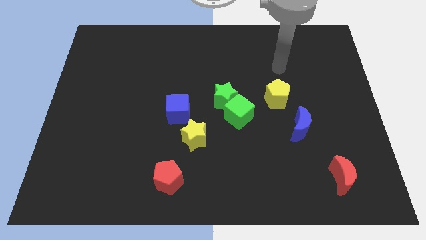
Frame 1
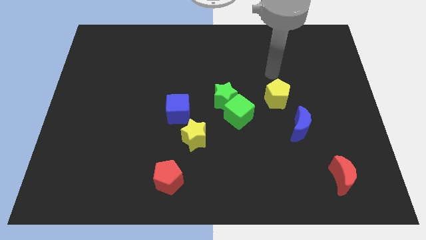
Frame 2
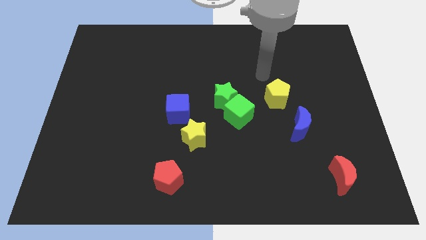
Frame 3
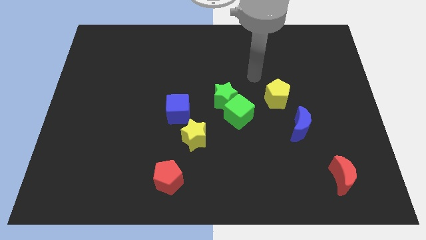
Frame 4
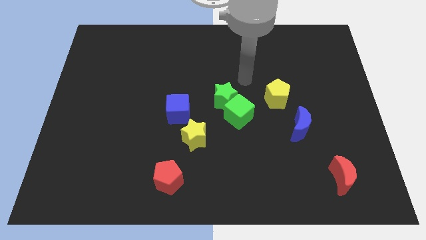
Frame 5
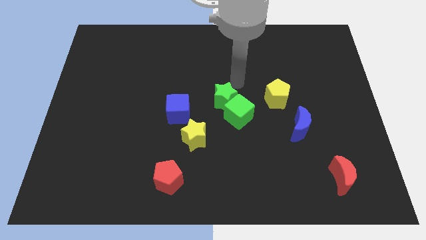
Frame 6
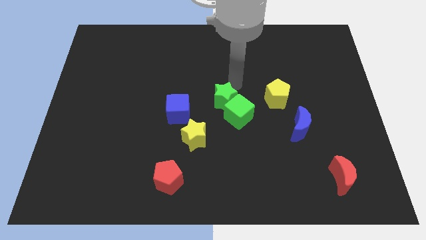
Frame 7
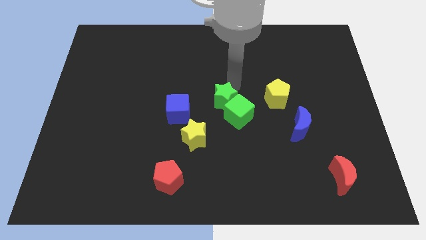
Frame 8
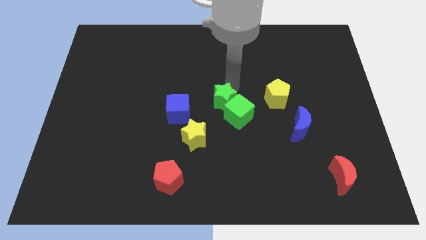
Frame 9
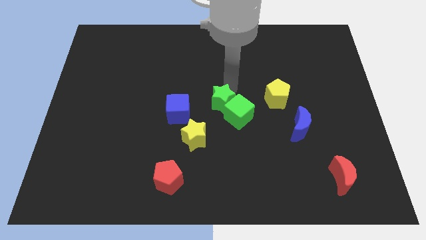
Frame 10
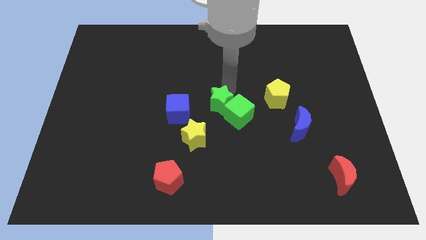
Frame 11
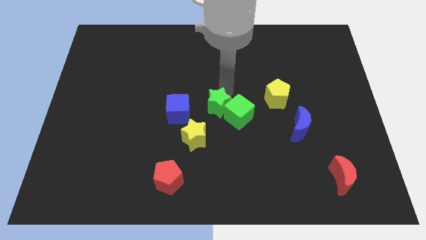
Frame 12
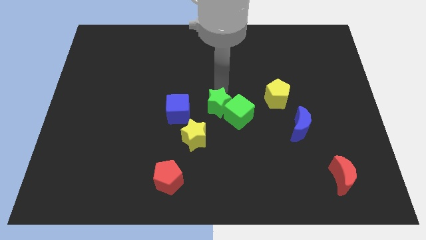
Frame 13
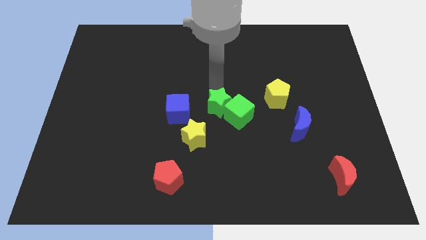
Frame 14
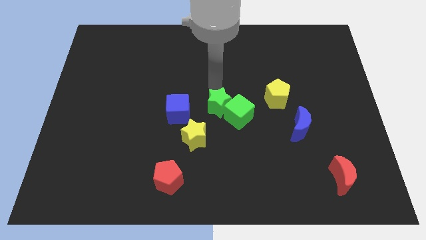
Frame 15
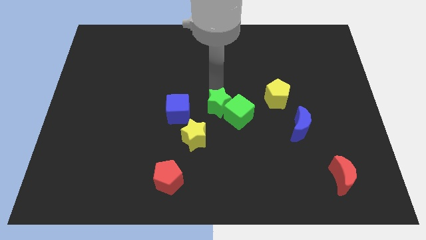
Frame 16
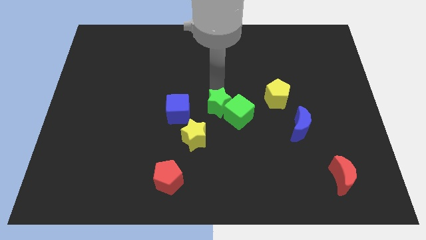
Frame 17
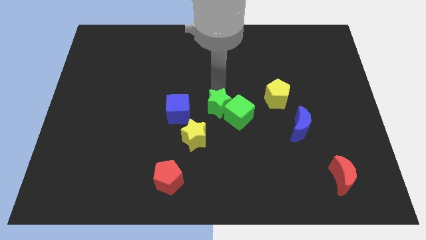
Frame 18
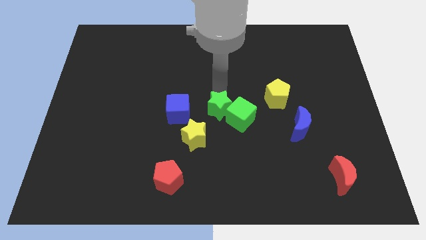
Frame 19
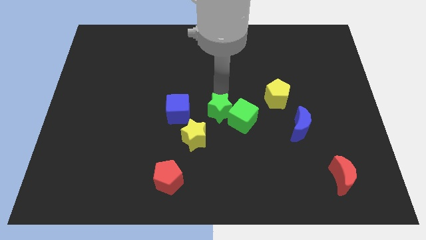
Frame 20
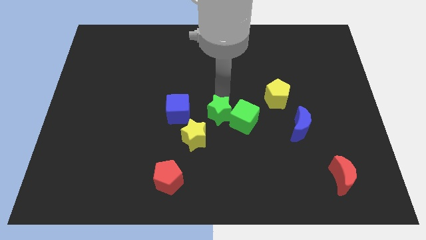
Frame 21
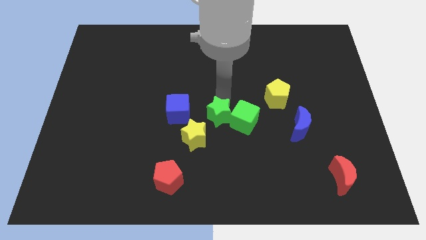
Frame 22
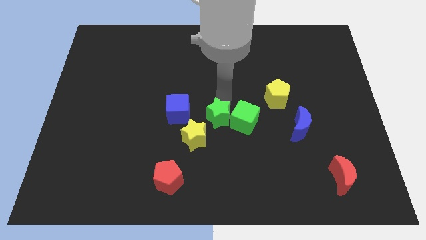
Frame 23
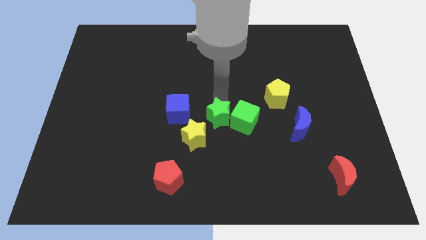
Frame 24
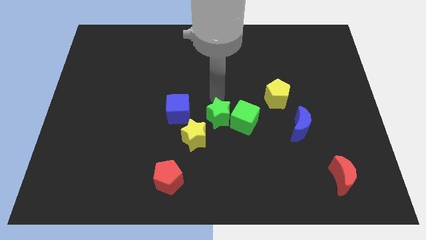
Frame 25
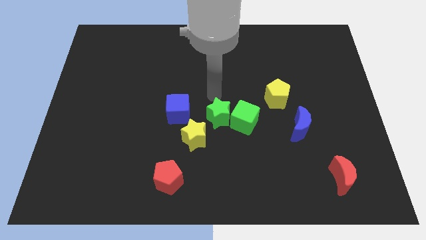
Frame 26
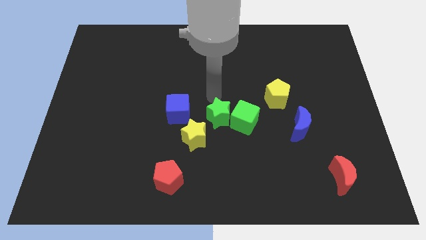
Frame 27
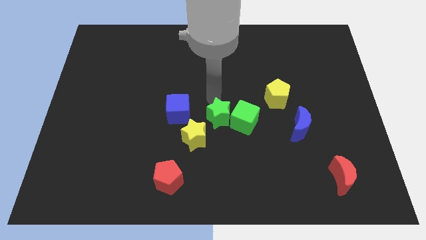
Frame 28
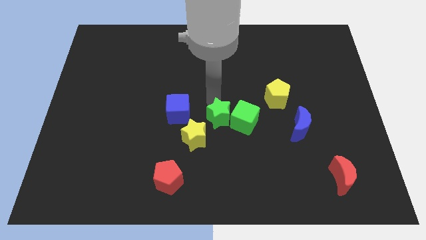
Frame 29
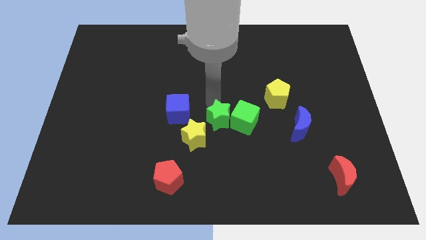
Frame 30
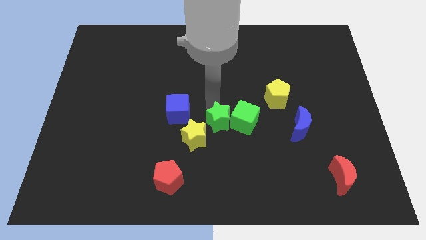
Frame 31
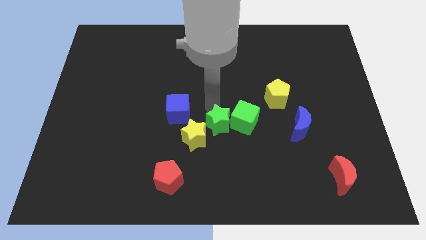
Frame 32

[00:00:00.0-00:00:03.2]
move the green star slightly downwards

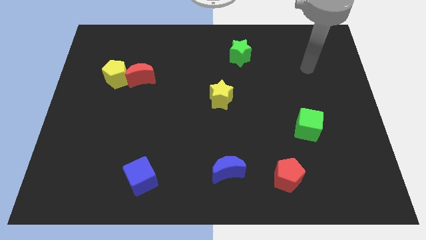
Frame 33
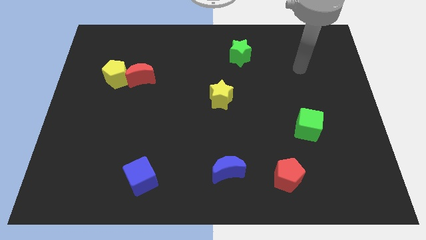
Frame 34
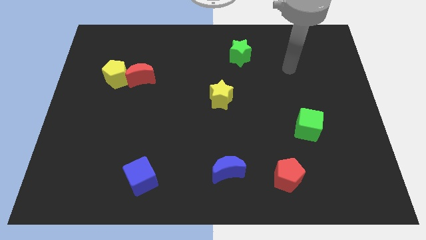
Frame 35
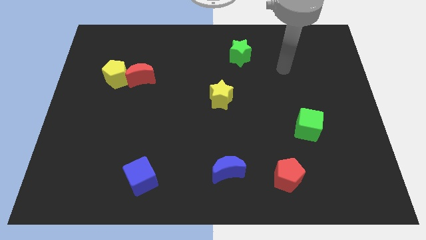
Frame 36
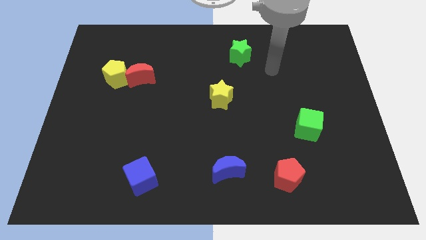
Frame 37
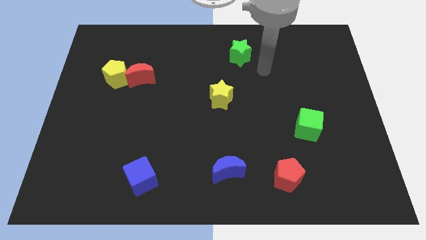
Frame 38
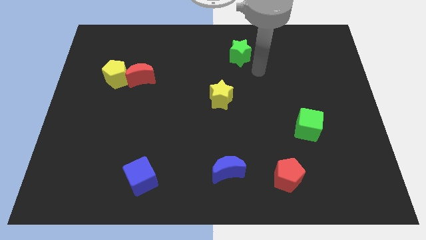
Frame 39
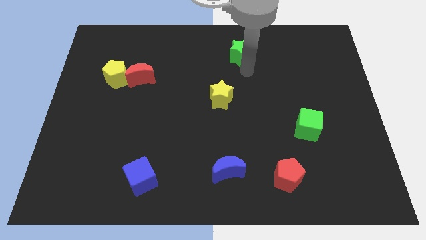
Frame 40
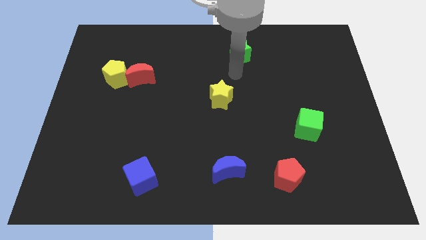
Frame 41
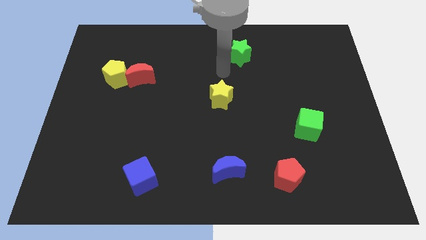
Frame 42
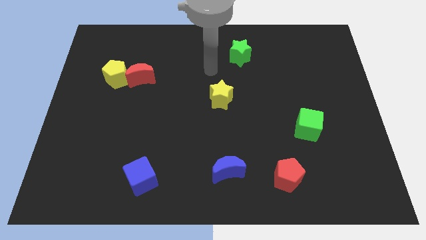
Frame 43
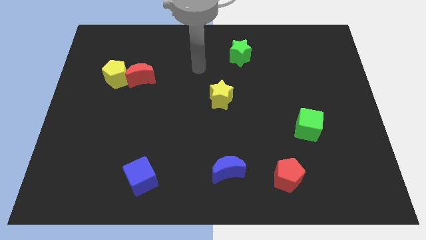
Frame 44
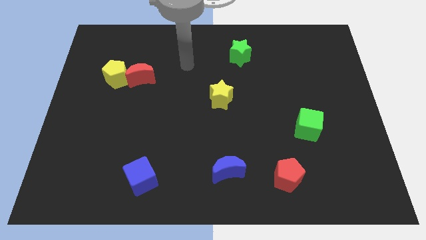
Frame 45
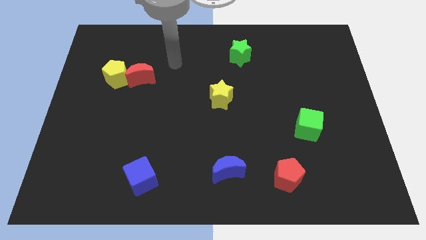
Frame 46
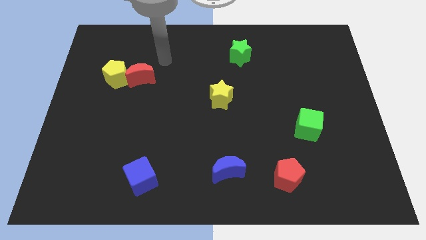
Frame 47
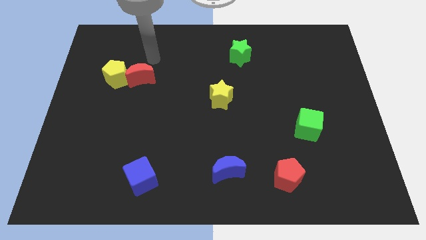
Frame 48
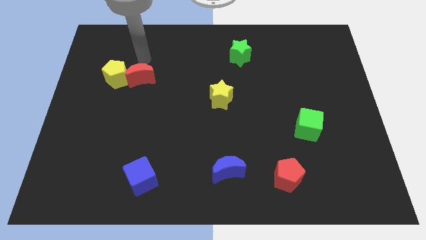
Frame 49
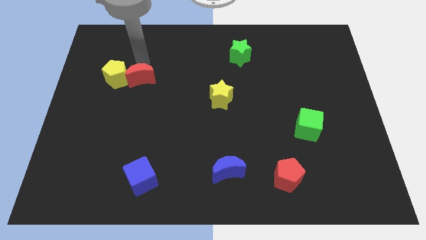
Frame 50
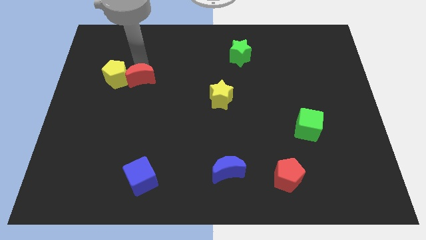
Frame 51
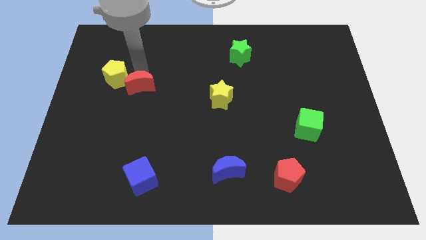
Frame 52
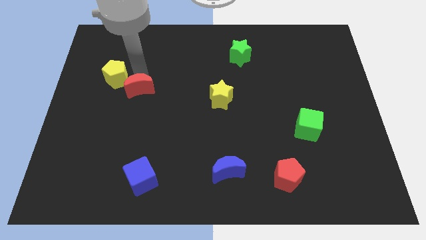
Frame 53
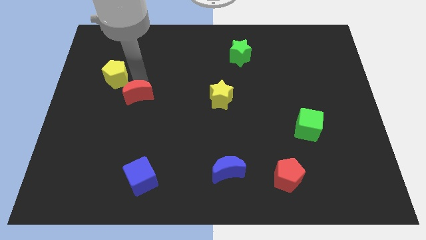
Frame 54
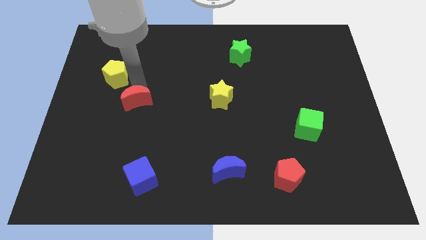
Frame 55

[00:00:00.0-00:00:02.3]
slide the red moon down a little

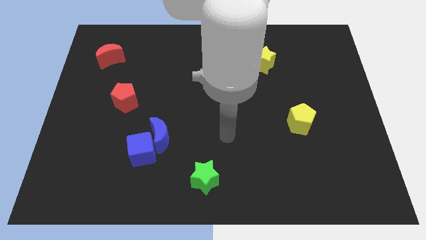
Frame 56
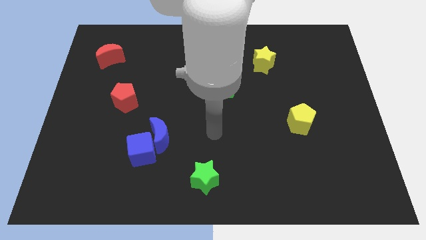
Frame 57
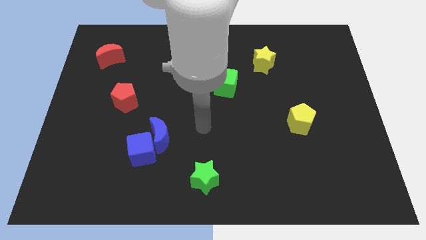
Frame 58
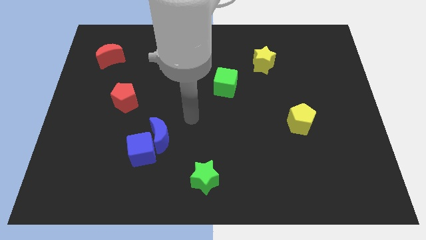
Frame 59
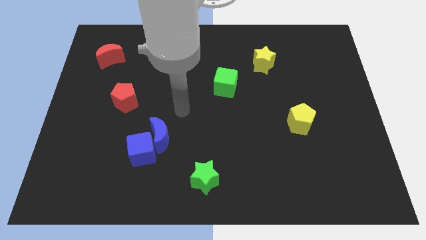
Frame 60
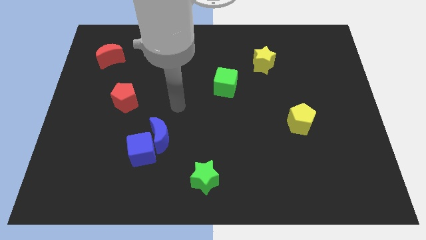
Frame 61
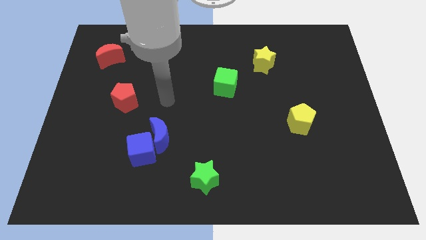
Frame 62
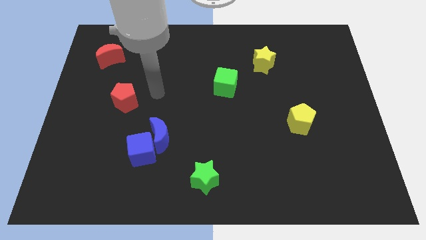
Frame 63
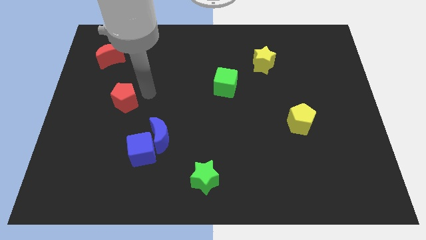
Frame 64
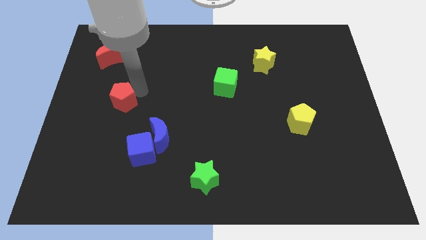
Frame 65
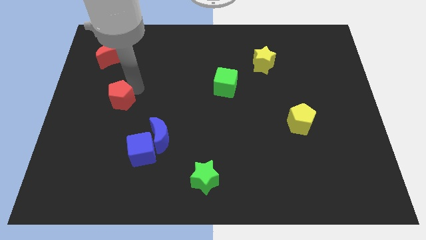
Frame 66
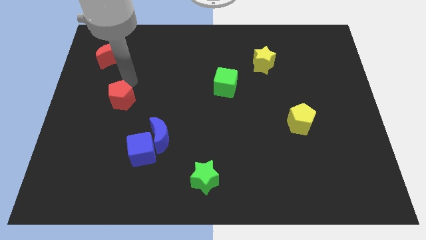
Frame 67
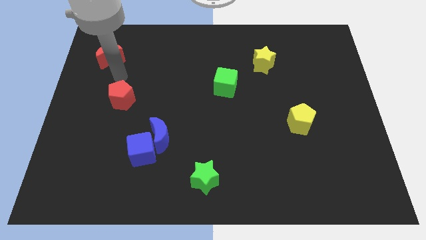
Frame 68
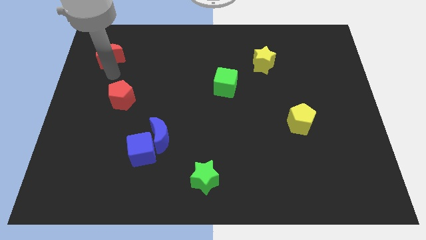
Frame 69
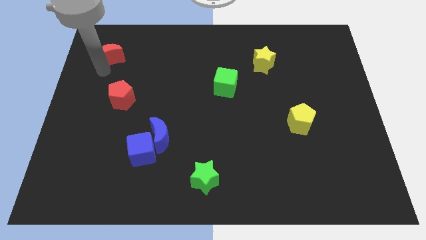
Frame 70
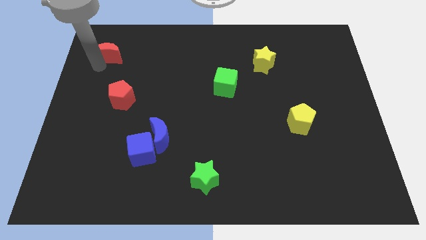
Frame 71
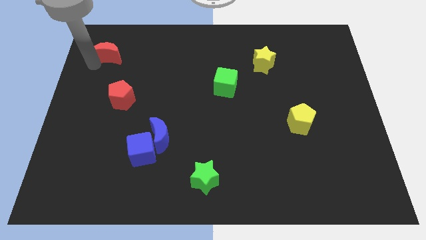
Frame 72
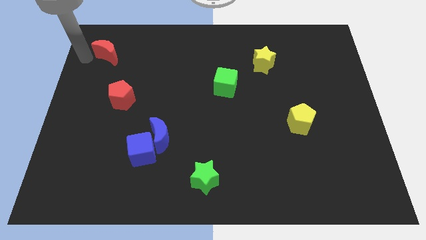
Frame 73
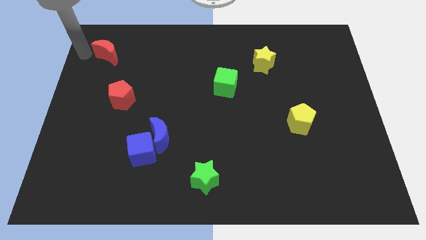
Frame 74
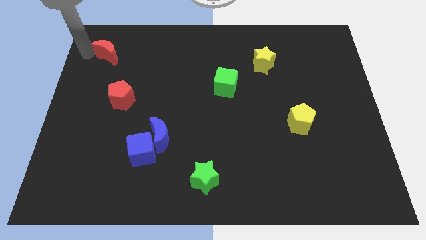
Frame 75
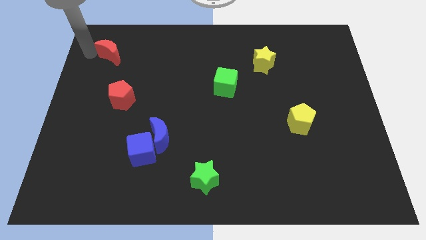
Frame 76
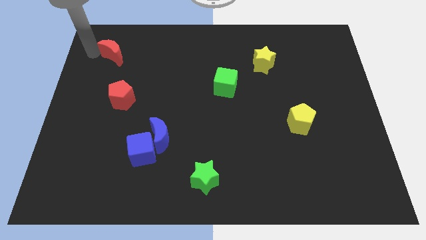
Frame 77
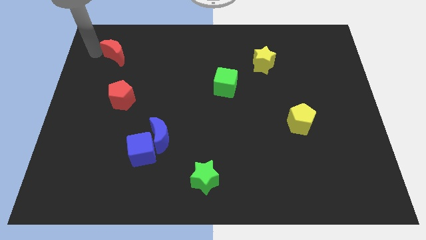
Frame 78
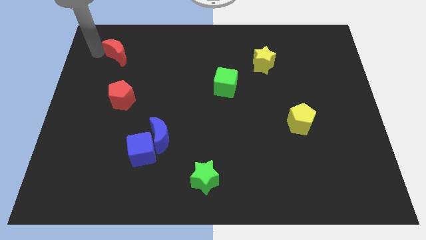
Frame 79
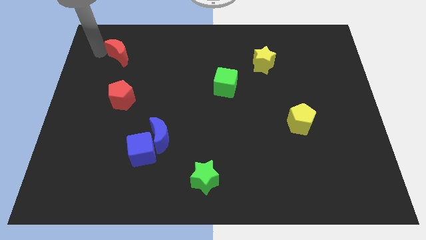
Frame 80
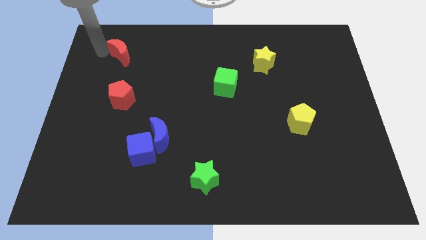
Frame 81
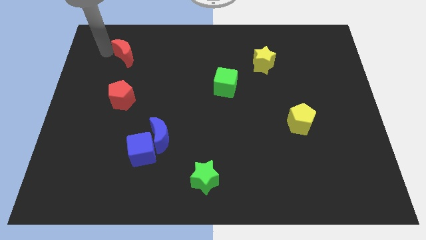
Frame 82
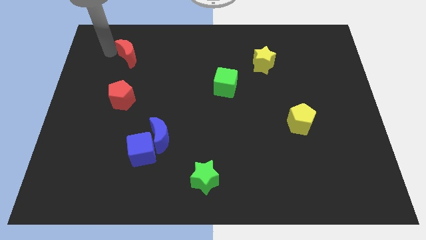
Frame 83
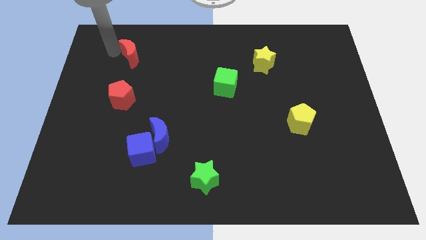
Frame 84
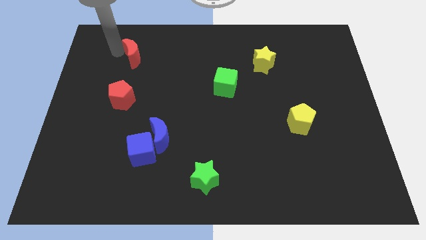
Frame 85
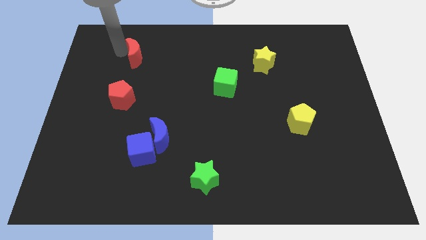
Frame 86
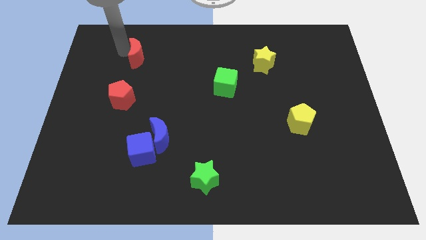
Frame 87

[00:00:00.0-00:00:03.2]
push the red moon right a bit
